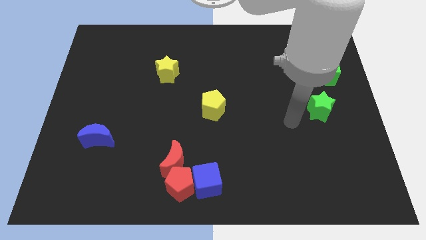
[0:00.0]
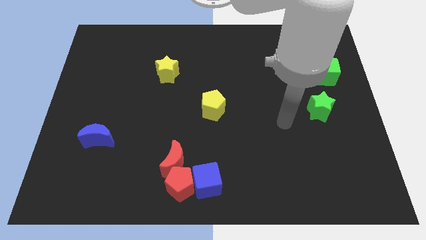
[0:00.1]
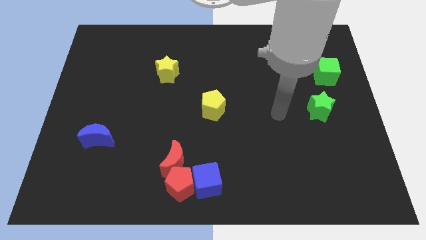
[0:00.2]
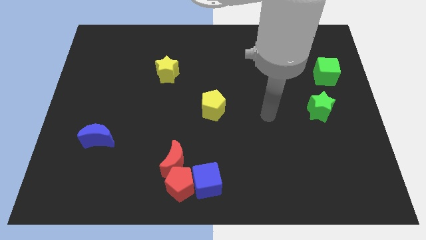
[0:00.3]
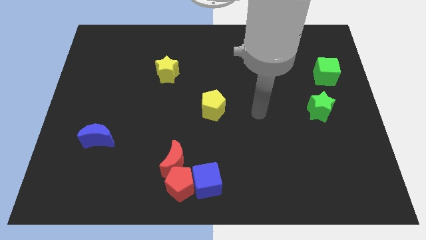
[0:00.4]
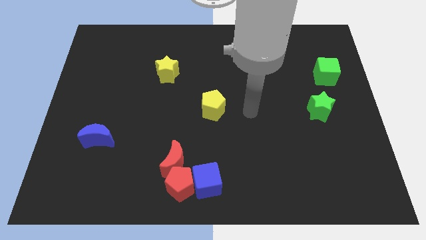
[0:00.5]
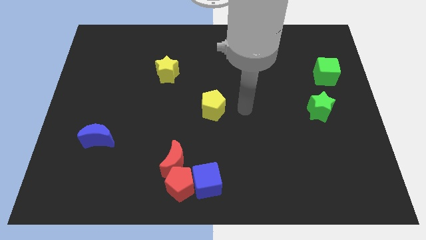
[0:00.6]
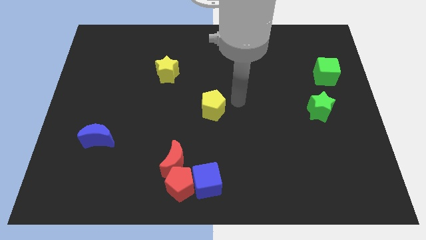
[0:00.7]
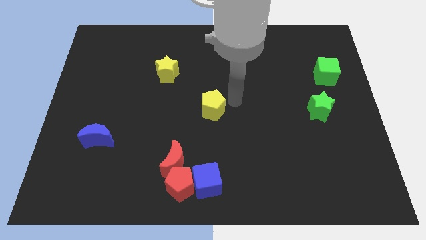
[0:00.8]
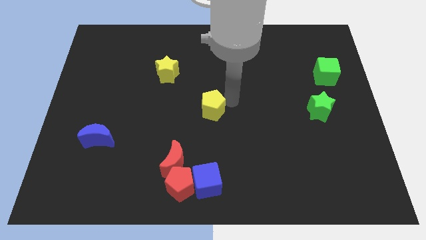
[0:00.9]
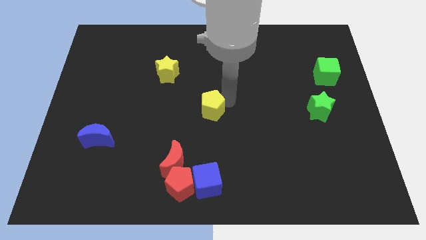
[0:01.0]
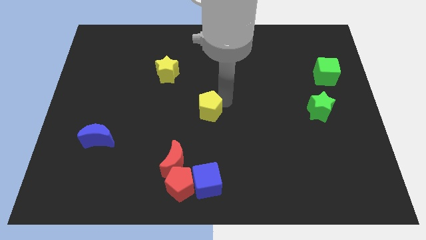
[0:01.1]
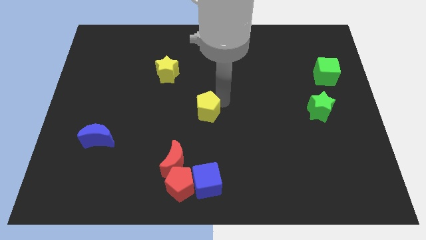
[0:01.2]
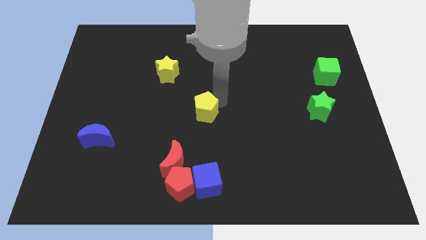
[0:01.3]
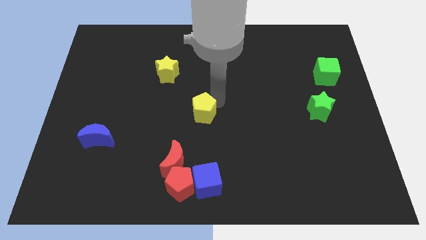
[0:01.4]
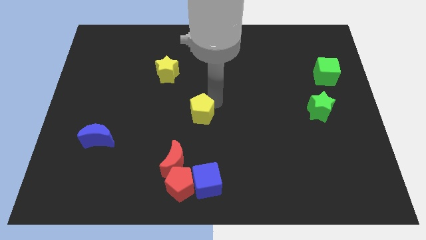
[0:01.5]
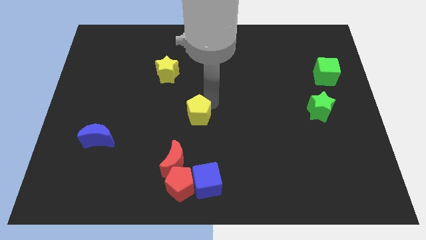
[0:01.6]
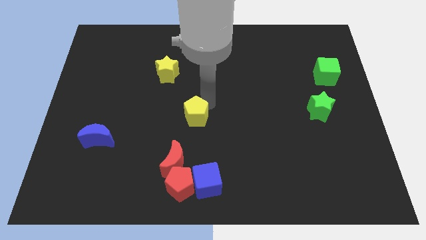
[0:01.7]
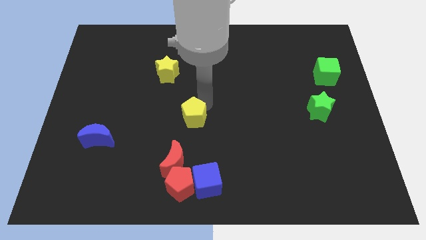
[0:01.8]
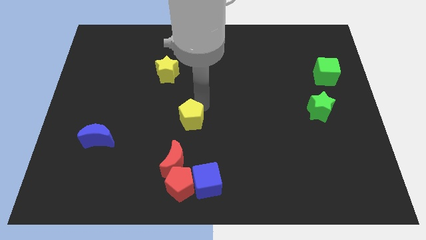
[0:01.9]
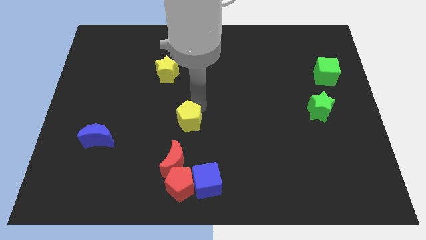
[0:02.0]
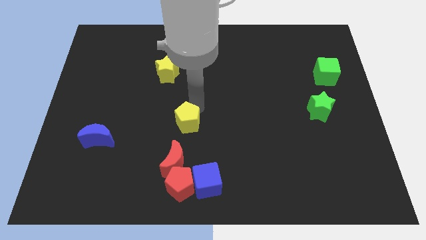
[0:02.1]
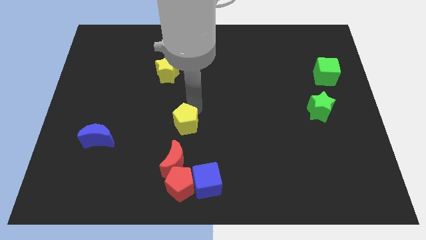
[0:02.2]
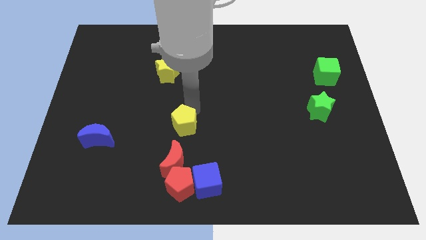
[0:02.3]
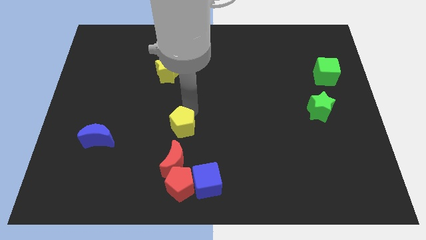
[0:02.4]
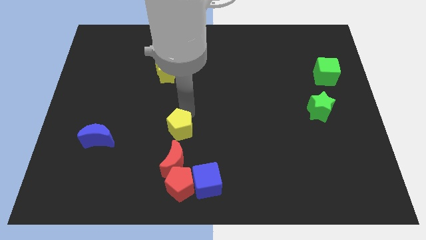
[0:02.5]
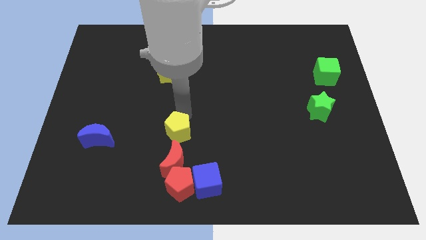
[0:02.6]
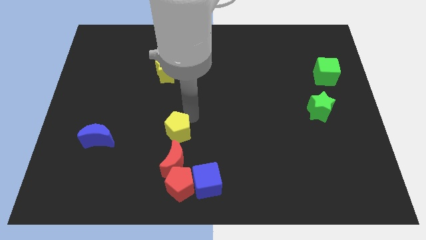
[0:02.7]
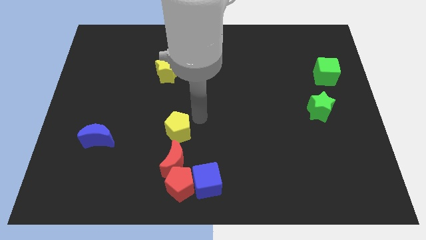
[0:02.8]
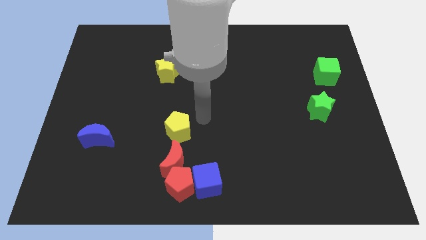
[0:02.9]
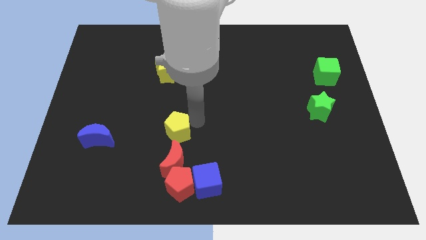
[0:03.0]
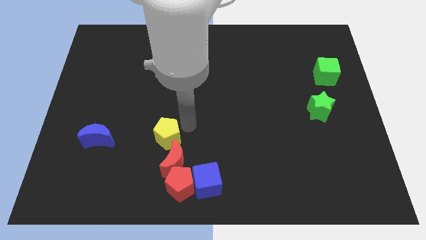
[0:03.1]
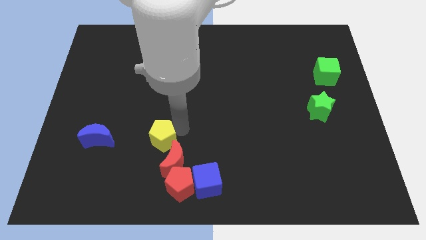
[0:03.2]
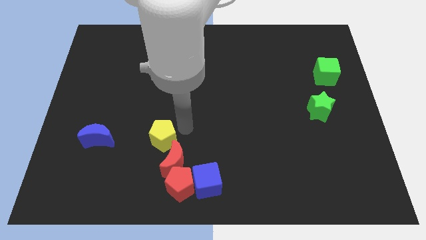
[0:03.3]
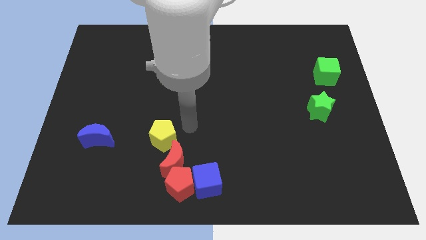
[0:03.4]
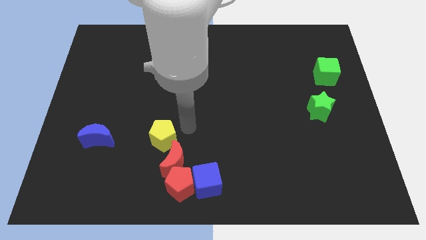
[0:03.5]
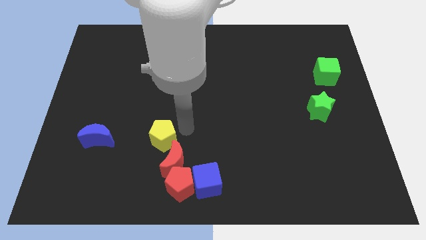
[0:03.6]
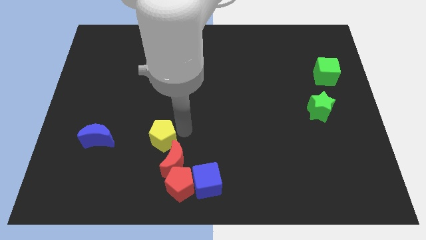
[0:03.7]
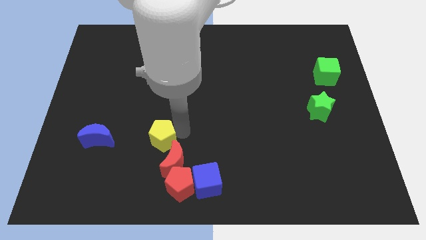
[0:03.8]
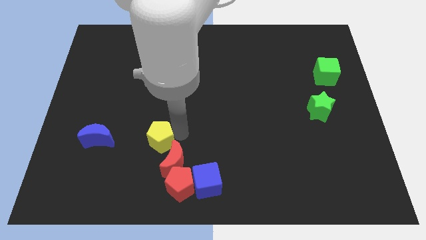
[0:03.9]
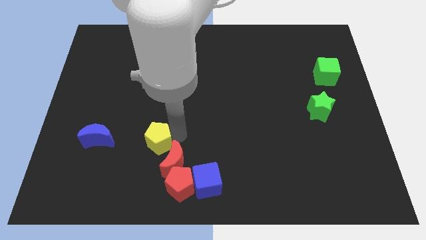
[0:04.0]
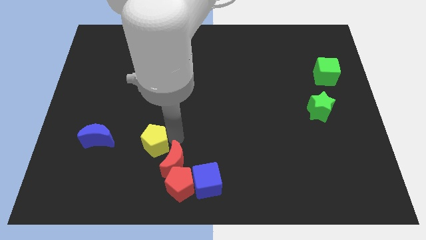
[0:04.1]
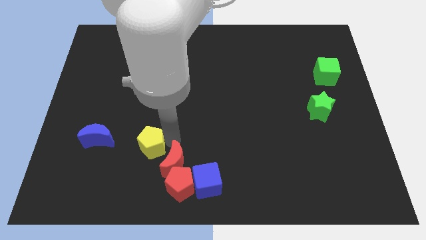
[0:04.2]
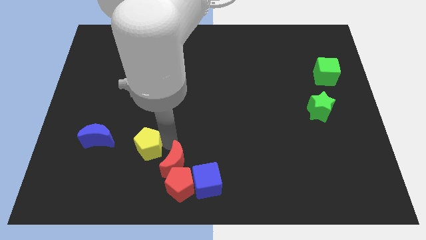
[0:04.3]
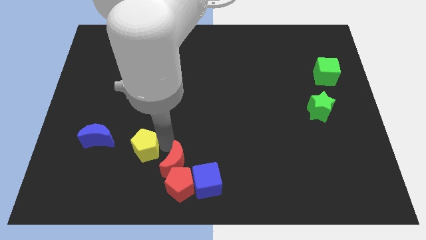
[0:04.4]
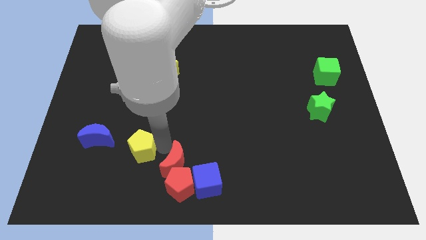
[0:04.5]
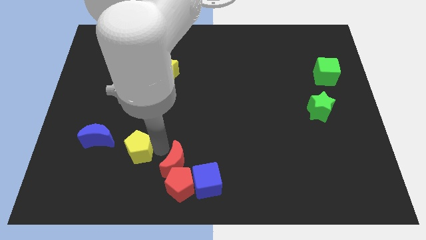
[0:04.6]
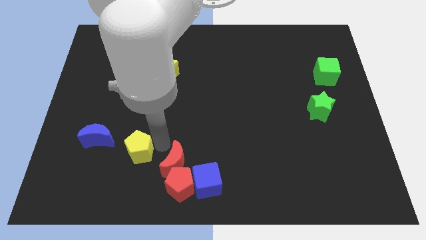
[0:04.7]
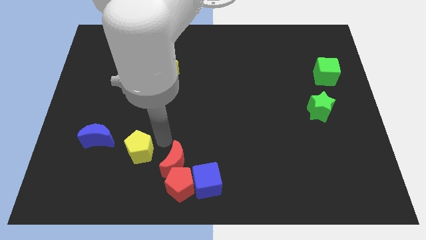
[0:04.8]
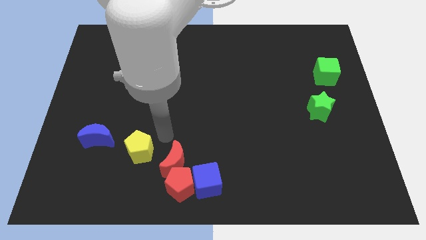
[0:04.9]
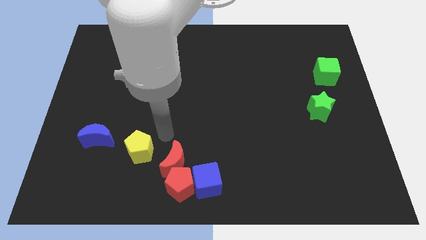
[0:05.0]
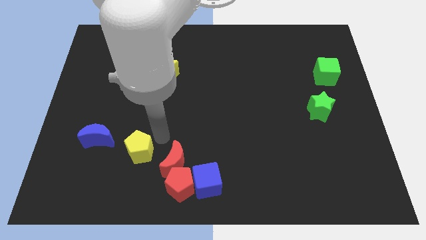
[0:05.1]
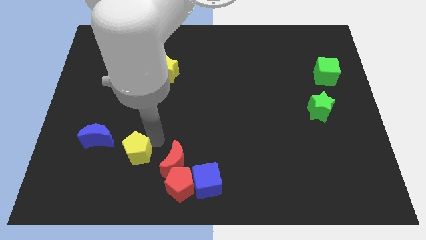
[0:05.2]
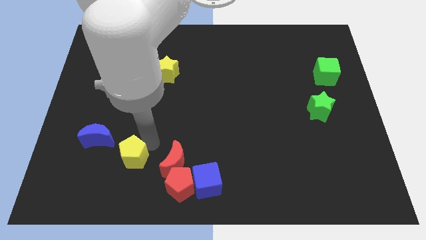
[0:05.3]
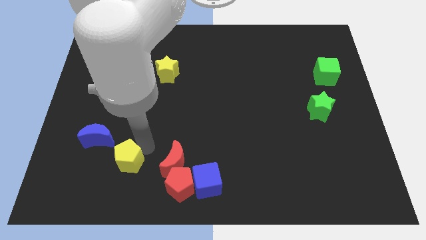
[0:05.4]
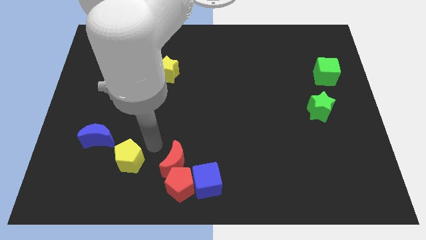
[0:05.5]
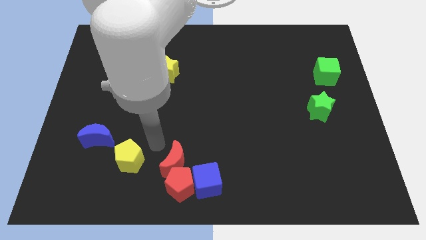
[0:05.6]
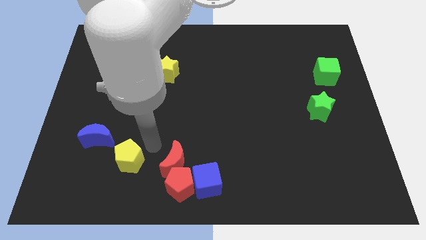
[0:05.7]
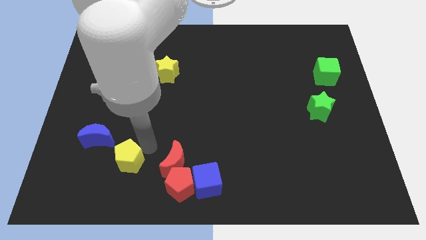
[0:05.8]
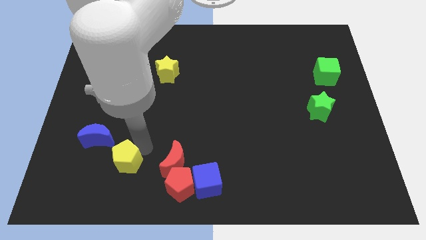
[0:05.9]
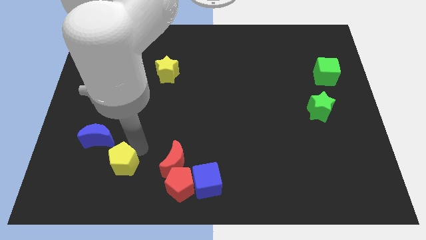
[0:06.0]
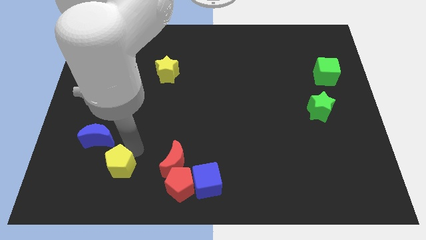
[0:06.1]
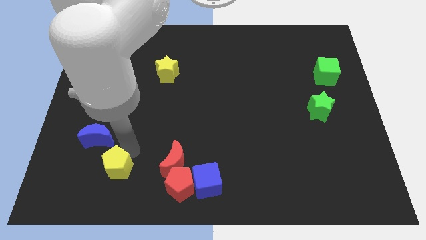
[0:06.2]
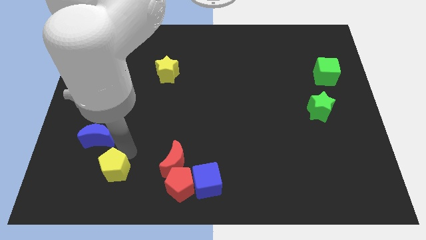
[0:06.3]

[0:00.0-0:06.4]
push the yellow pentagon to the bottom side of the blue moon
